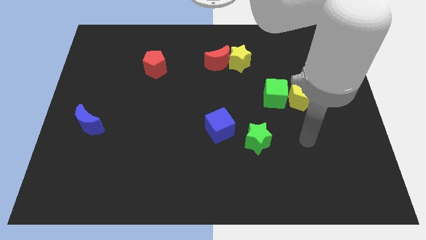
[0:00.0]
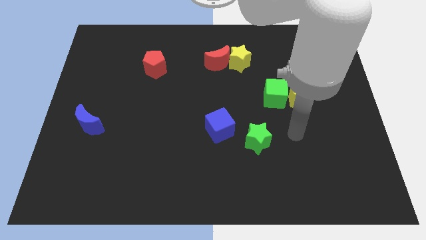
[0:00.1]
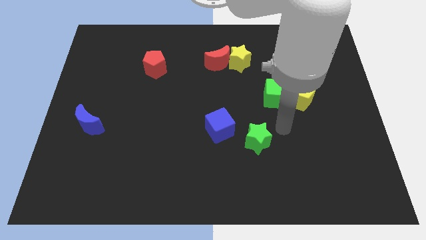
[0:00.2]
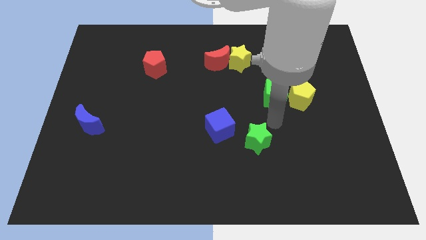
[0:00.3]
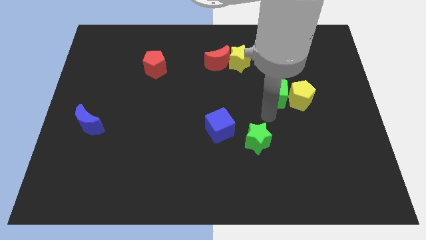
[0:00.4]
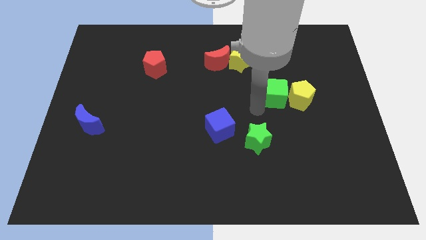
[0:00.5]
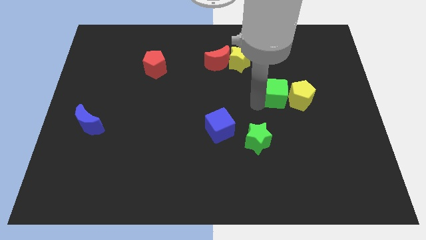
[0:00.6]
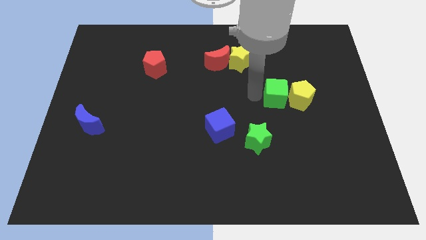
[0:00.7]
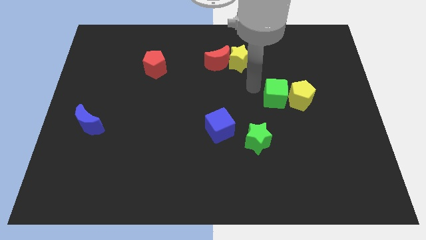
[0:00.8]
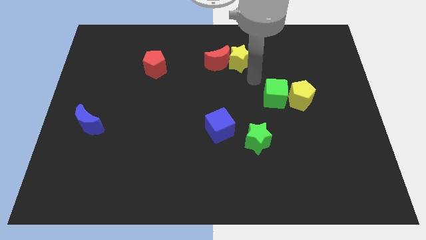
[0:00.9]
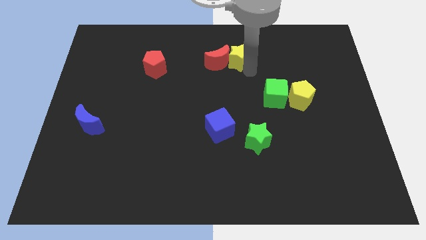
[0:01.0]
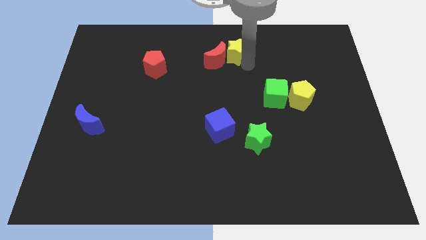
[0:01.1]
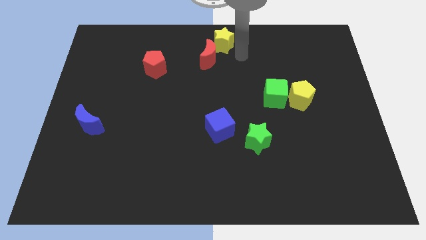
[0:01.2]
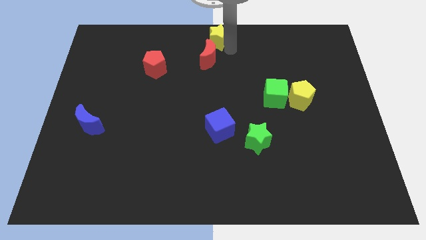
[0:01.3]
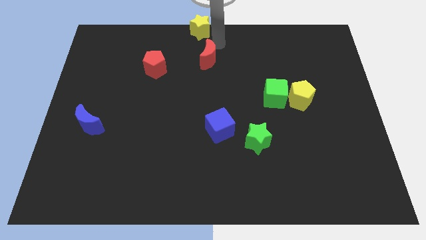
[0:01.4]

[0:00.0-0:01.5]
move the red moon away from the yellow star

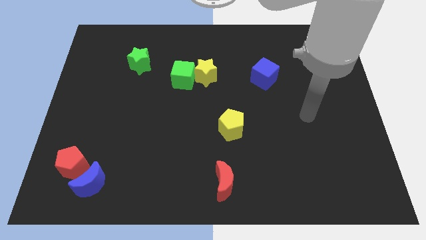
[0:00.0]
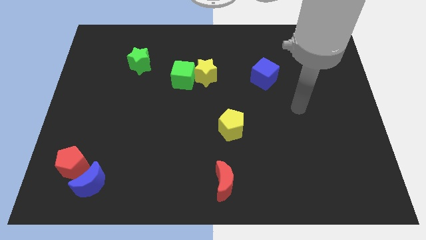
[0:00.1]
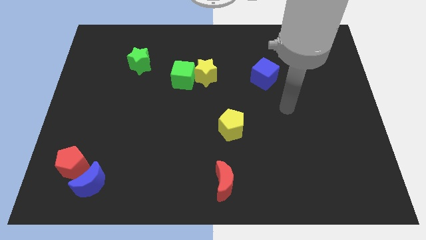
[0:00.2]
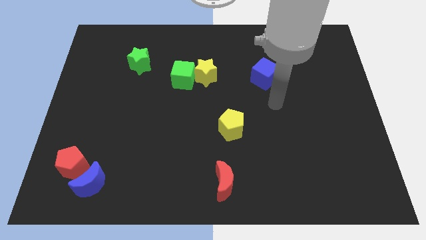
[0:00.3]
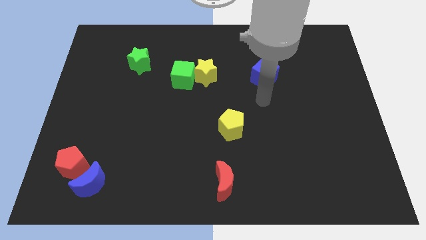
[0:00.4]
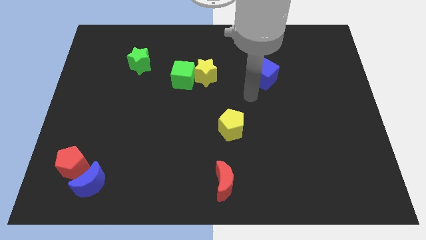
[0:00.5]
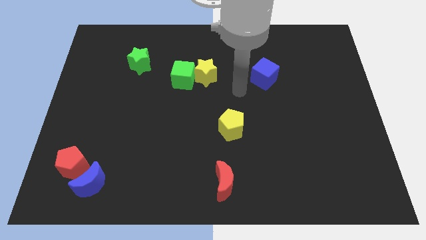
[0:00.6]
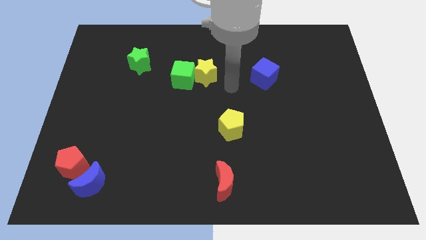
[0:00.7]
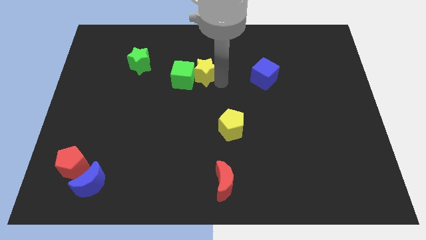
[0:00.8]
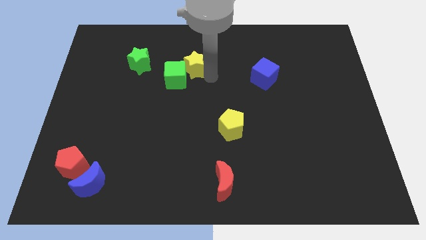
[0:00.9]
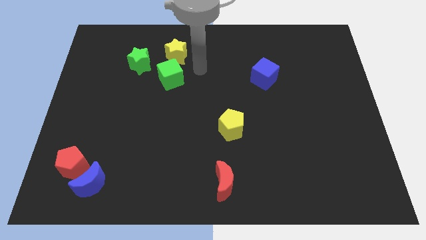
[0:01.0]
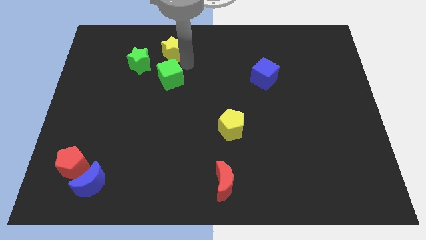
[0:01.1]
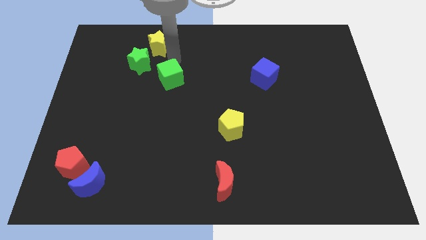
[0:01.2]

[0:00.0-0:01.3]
pull the green cube apart from the yellow star

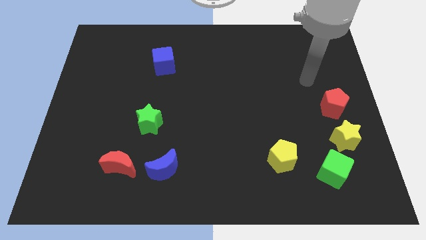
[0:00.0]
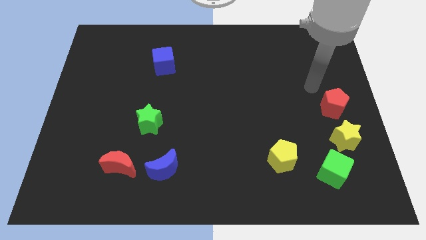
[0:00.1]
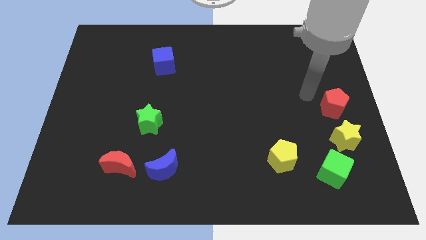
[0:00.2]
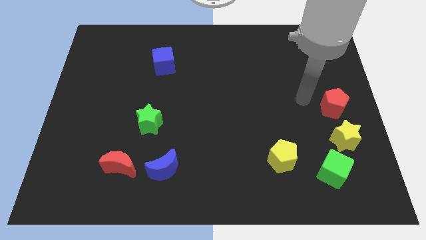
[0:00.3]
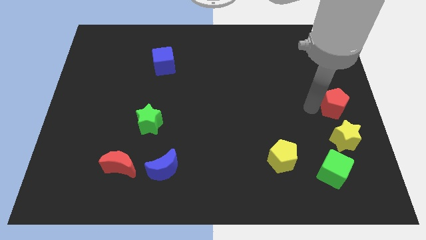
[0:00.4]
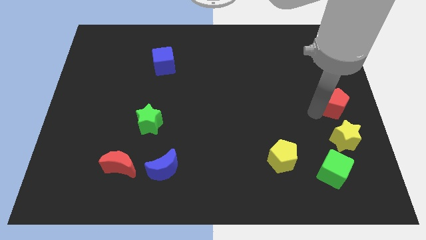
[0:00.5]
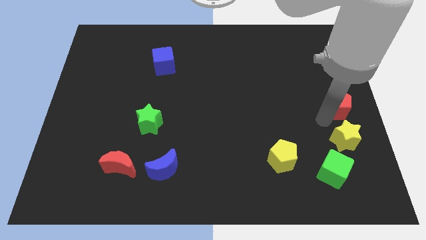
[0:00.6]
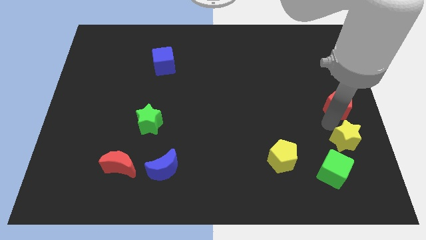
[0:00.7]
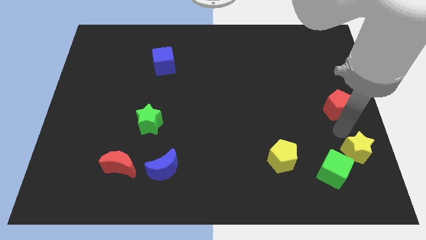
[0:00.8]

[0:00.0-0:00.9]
pull the red pentagon apart from the yellow star

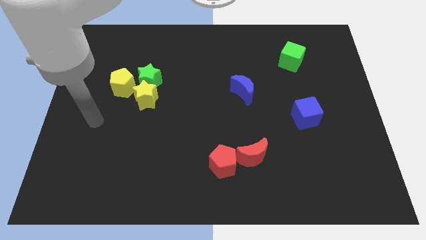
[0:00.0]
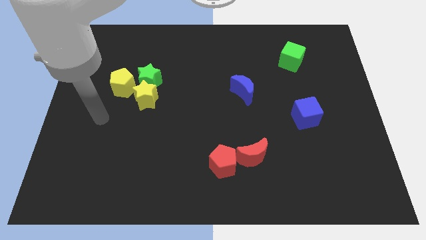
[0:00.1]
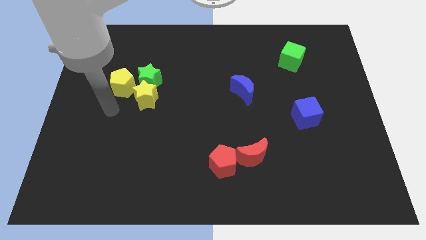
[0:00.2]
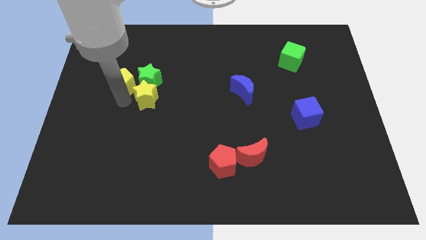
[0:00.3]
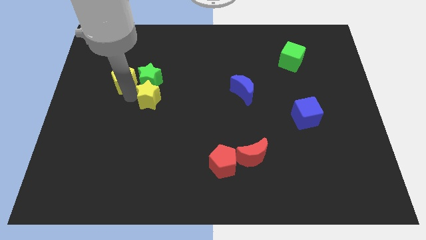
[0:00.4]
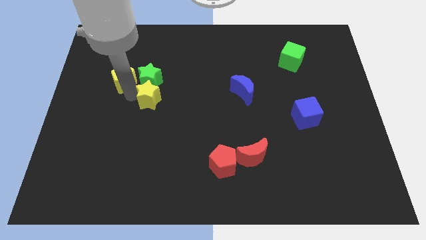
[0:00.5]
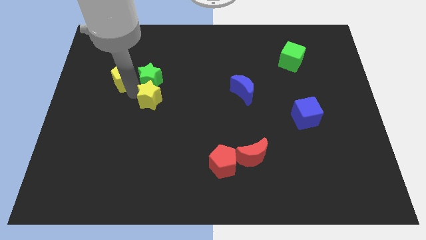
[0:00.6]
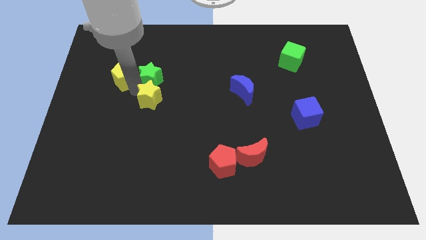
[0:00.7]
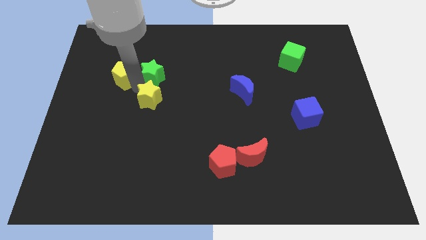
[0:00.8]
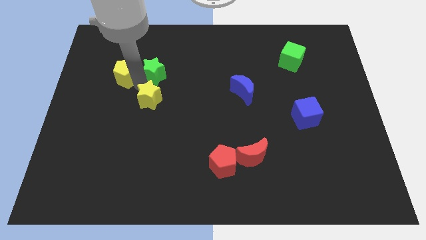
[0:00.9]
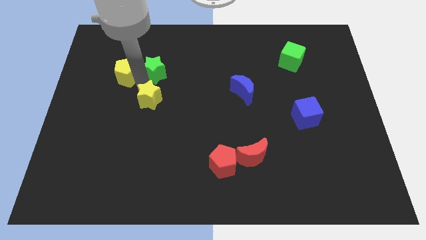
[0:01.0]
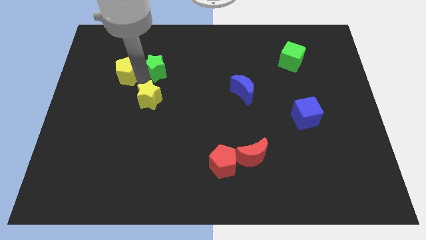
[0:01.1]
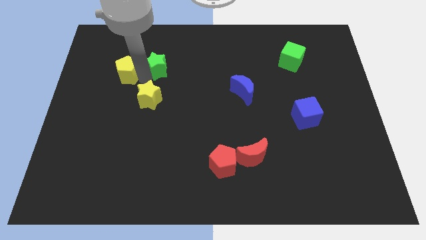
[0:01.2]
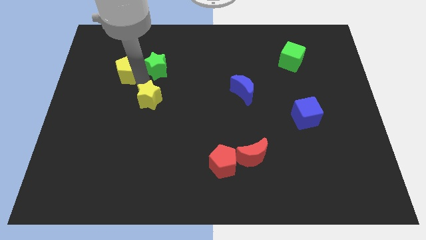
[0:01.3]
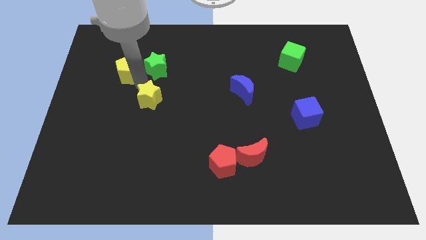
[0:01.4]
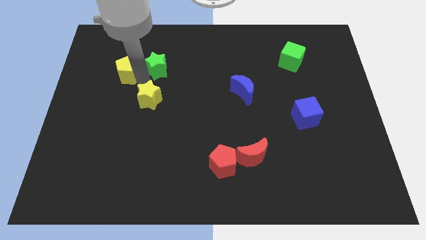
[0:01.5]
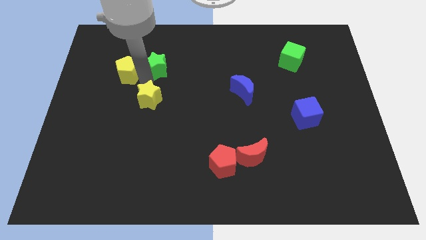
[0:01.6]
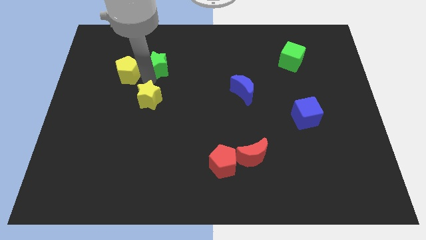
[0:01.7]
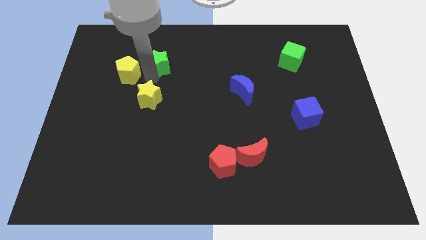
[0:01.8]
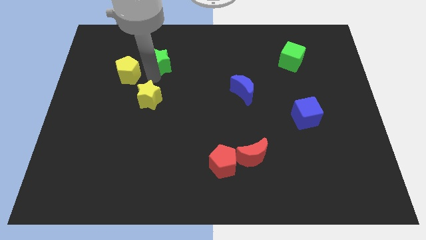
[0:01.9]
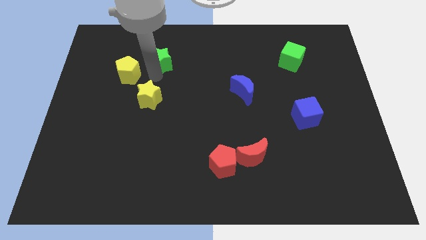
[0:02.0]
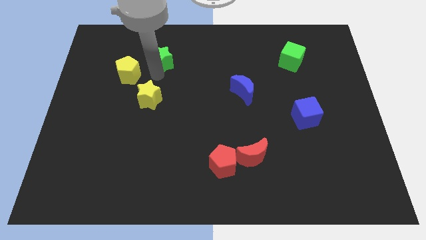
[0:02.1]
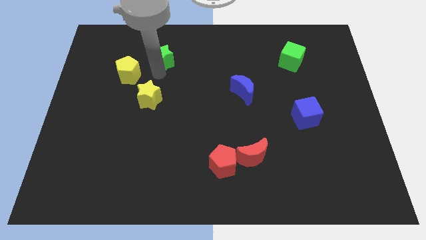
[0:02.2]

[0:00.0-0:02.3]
move the green star away from the yellow star and yellow pentagon

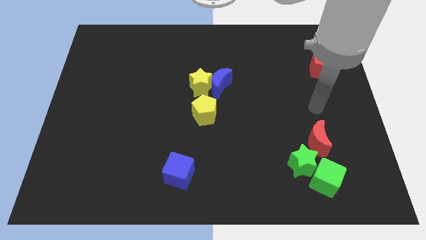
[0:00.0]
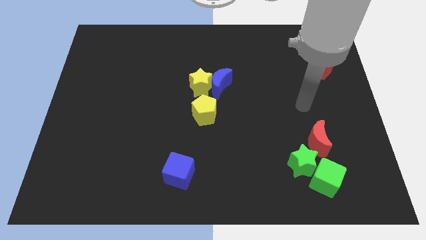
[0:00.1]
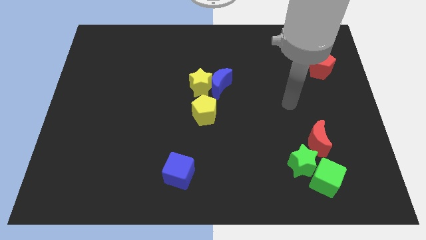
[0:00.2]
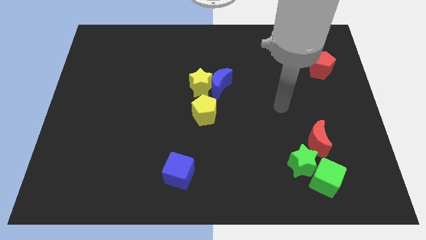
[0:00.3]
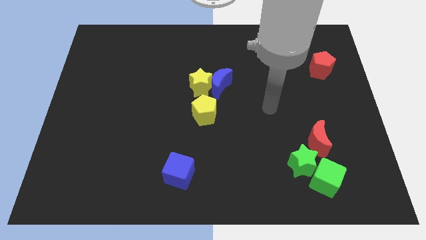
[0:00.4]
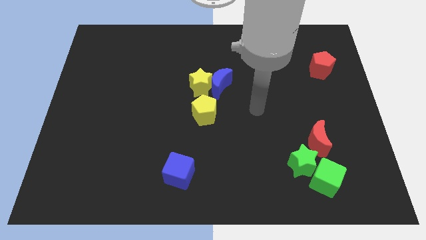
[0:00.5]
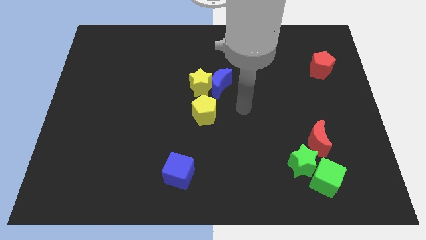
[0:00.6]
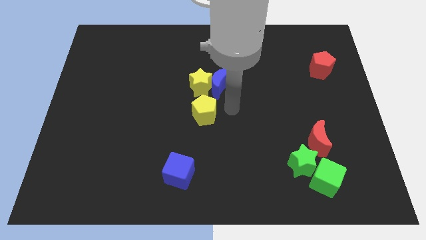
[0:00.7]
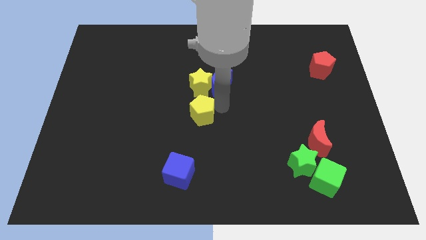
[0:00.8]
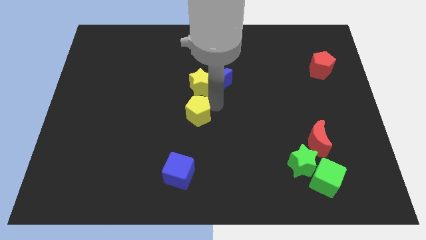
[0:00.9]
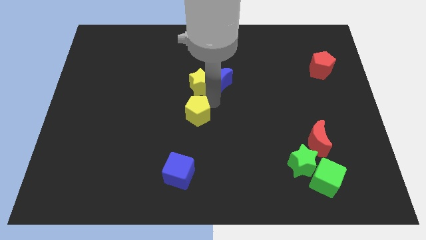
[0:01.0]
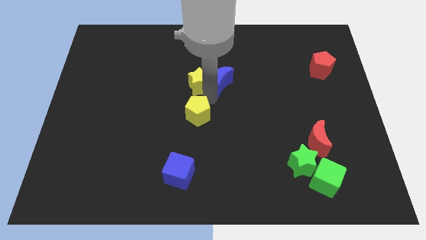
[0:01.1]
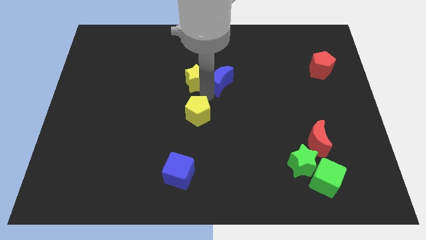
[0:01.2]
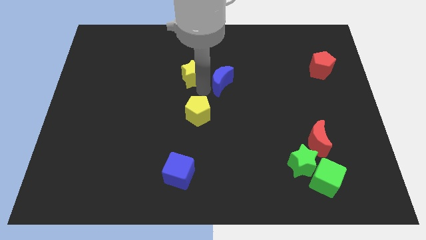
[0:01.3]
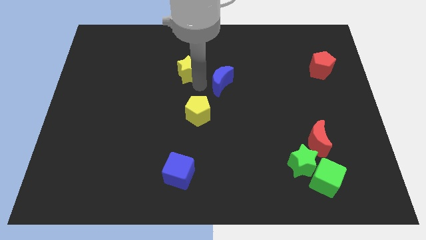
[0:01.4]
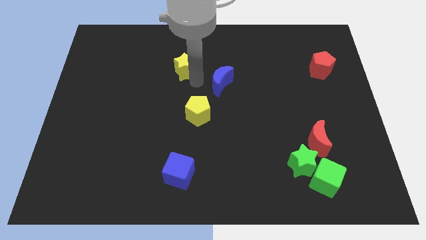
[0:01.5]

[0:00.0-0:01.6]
separate the yellow star from the blue moon and yellow pentagon

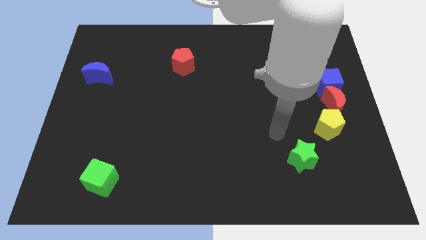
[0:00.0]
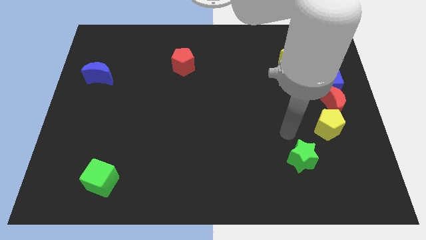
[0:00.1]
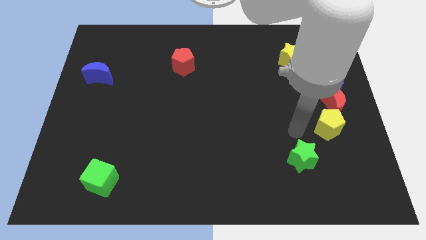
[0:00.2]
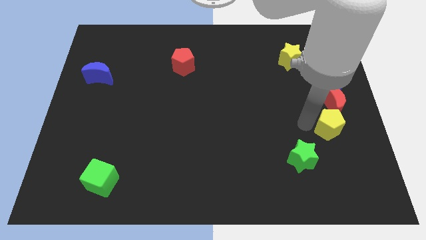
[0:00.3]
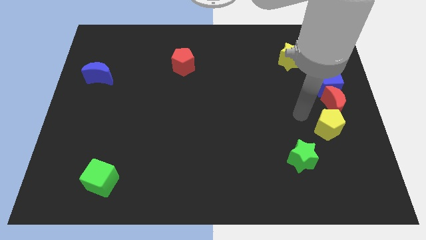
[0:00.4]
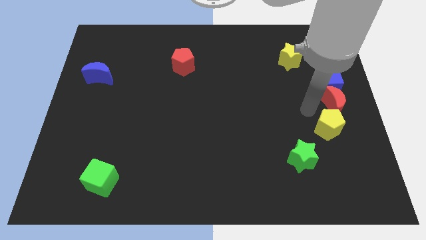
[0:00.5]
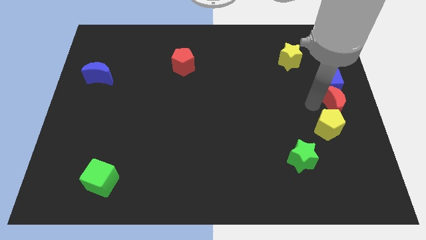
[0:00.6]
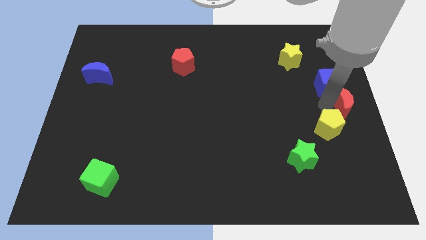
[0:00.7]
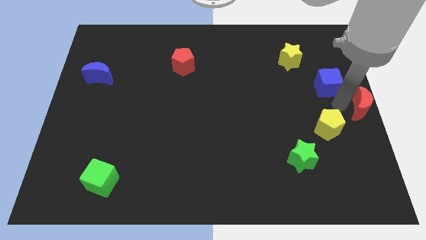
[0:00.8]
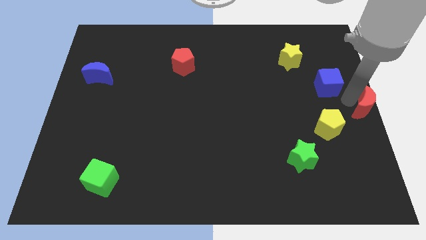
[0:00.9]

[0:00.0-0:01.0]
separate the blue cube from the red moon

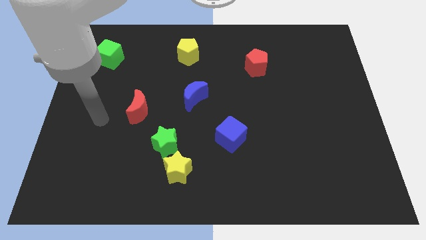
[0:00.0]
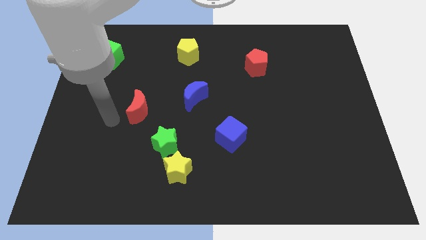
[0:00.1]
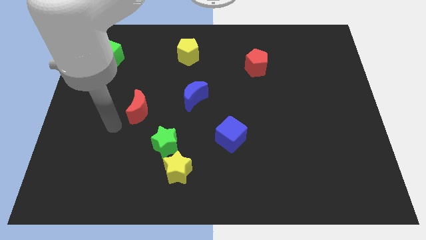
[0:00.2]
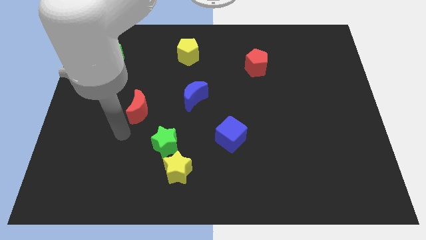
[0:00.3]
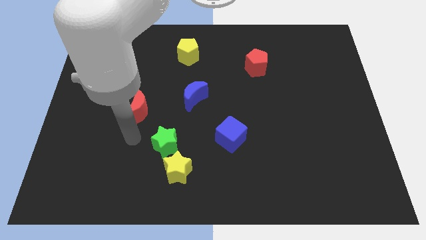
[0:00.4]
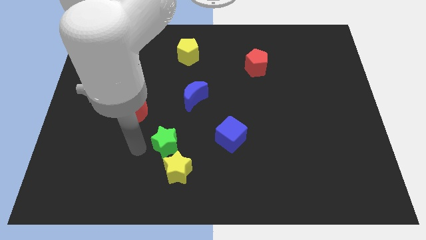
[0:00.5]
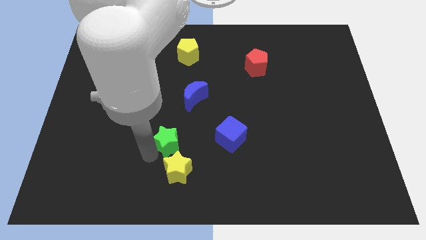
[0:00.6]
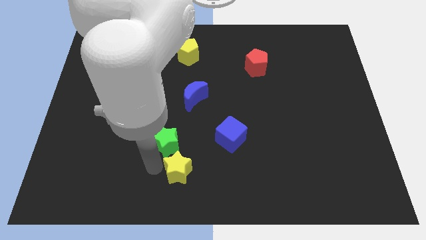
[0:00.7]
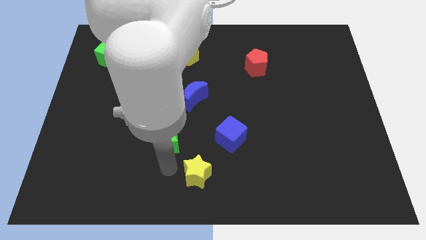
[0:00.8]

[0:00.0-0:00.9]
pull the green star apart from the yellow star
